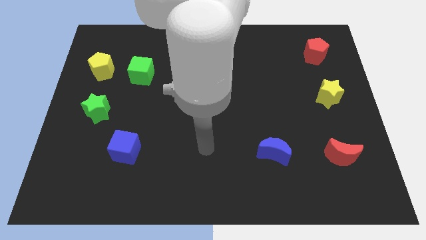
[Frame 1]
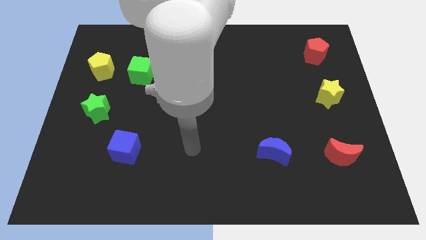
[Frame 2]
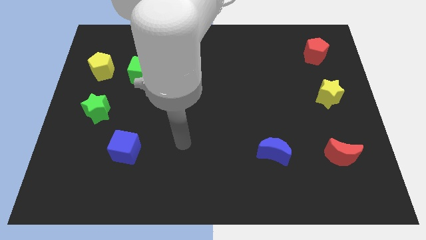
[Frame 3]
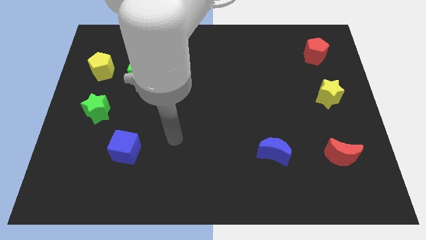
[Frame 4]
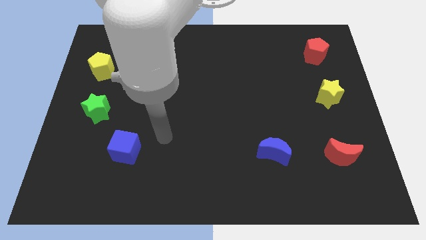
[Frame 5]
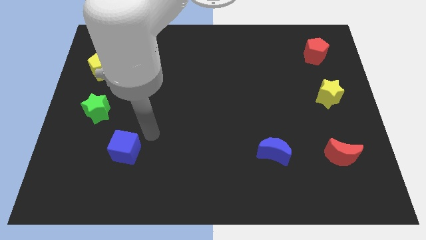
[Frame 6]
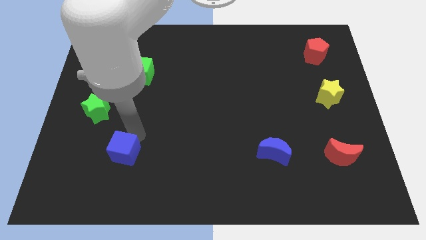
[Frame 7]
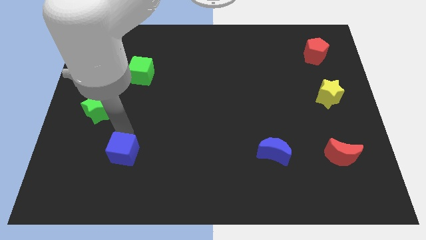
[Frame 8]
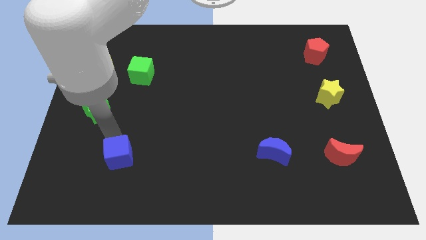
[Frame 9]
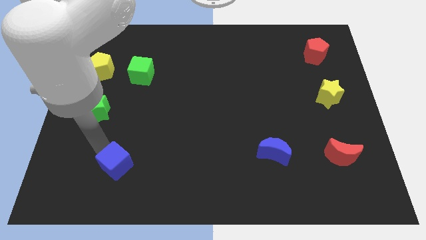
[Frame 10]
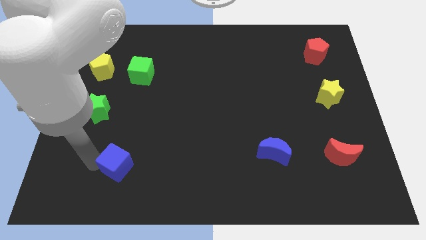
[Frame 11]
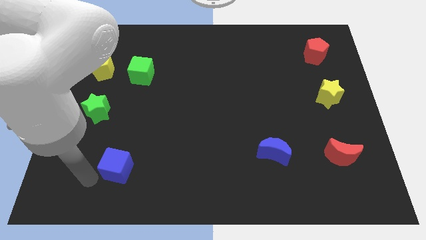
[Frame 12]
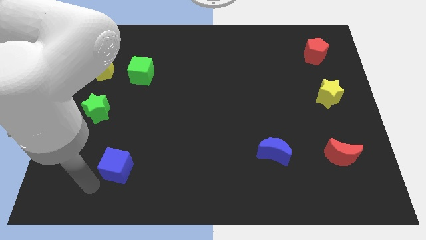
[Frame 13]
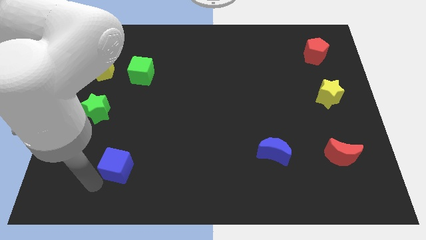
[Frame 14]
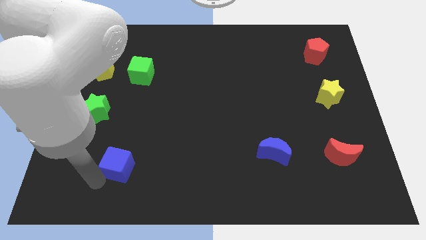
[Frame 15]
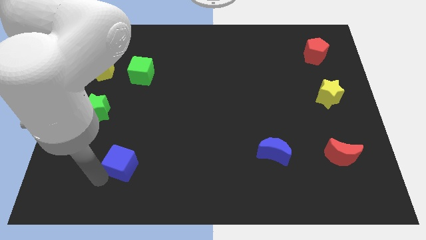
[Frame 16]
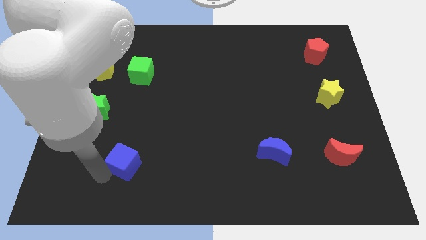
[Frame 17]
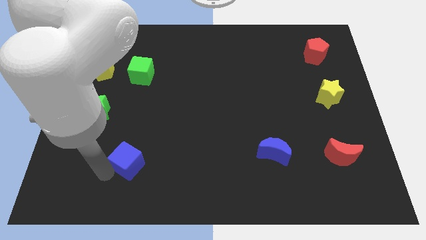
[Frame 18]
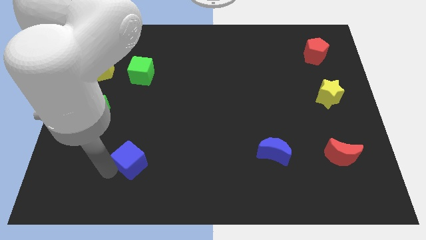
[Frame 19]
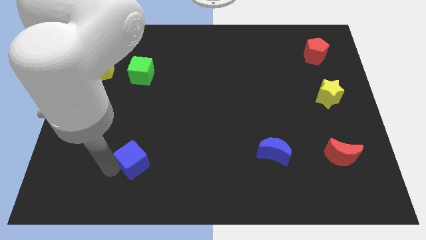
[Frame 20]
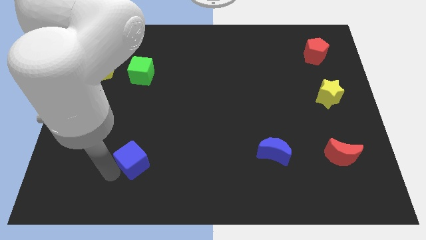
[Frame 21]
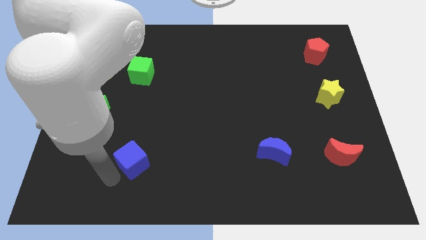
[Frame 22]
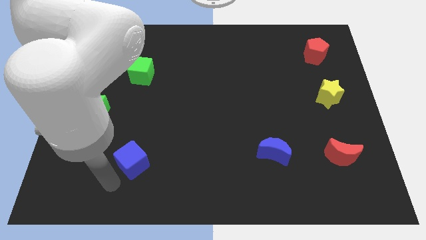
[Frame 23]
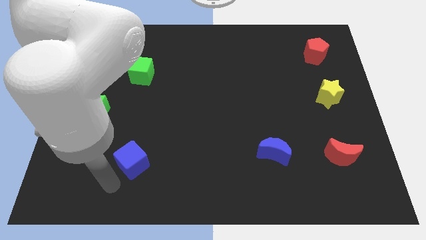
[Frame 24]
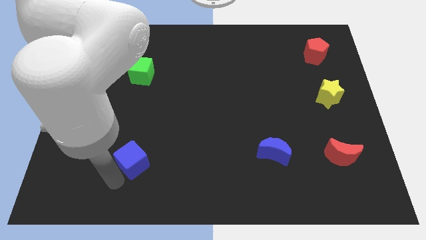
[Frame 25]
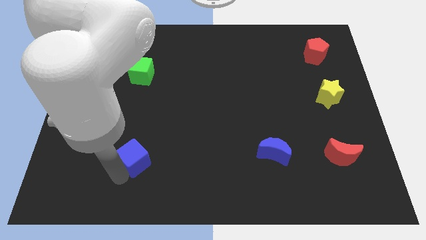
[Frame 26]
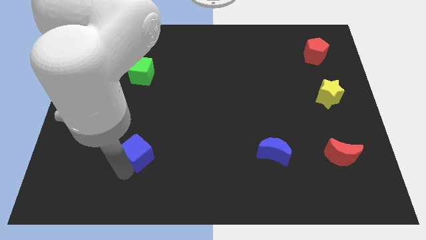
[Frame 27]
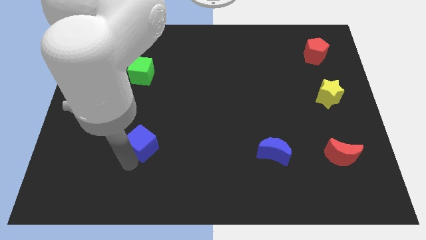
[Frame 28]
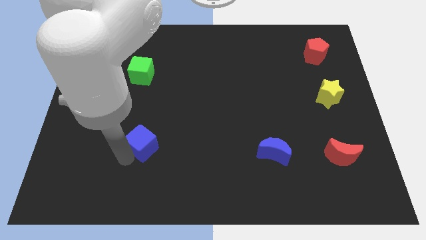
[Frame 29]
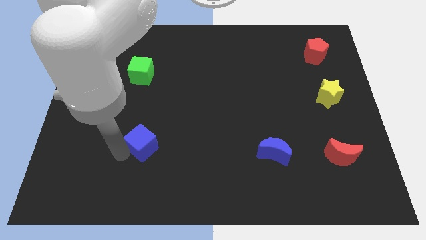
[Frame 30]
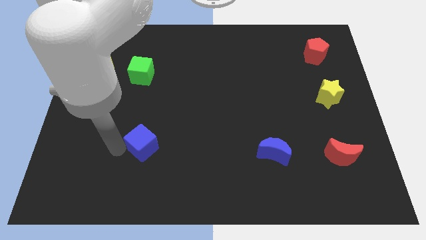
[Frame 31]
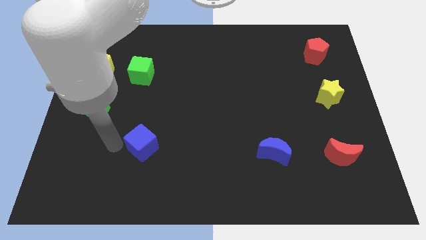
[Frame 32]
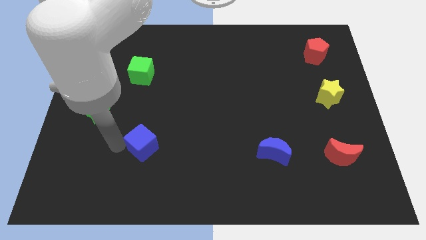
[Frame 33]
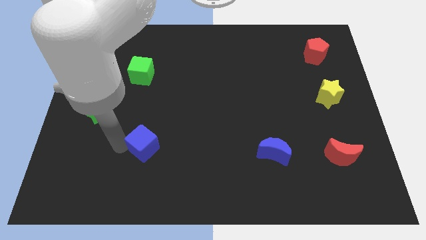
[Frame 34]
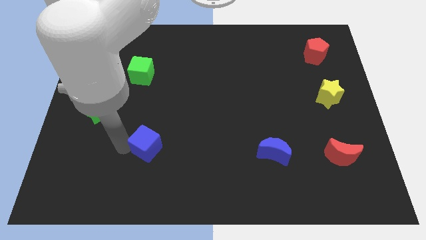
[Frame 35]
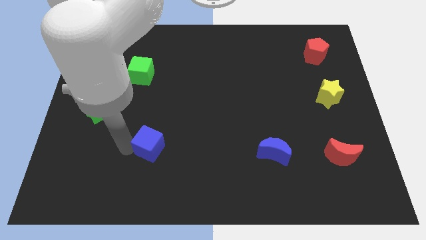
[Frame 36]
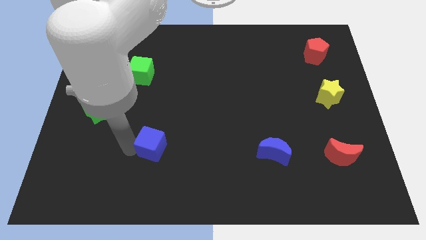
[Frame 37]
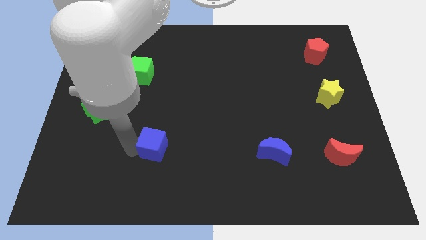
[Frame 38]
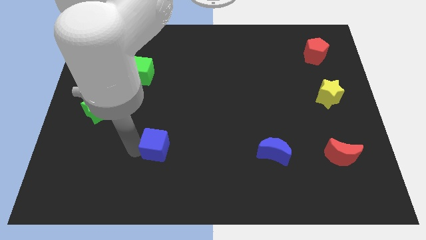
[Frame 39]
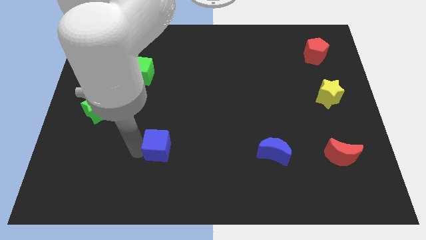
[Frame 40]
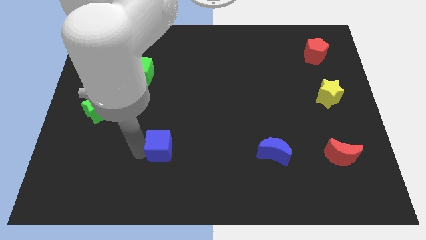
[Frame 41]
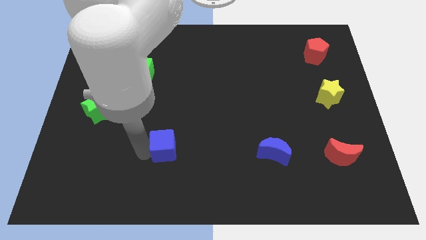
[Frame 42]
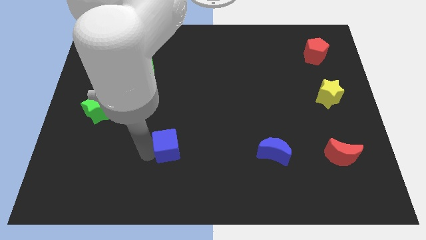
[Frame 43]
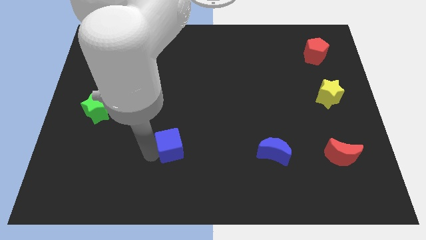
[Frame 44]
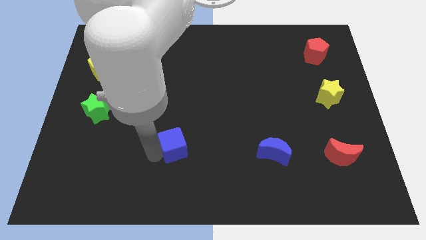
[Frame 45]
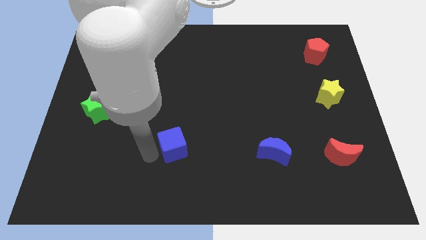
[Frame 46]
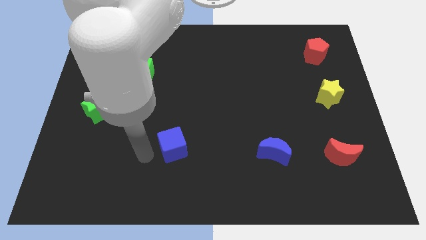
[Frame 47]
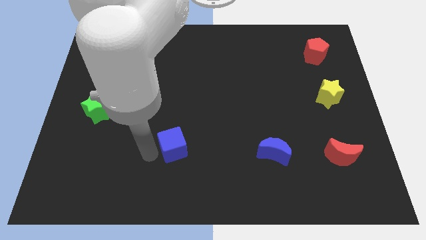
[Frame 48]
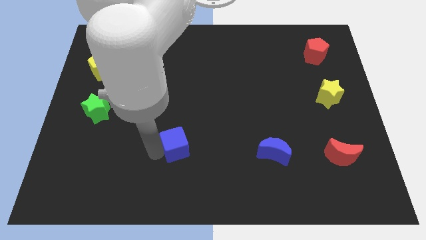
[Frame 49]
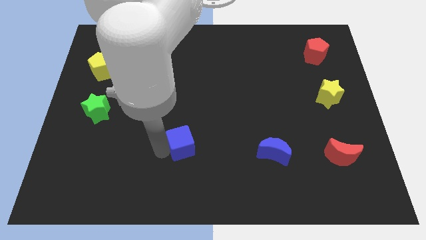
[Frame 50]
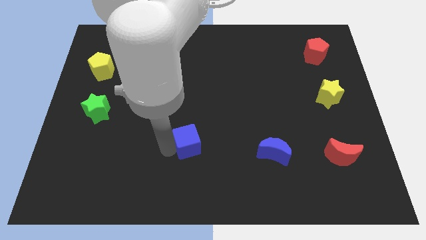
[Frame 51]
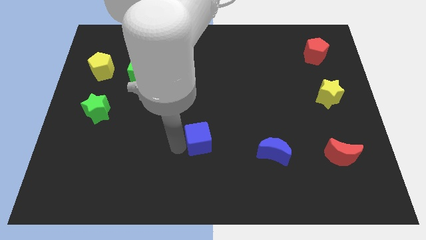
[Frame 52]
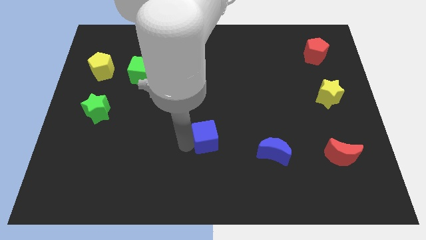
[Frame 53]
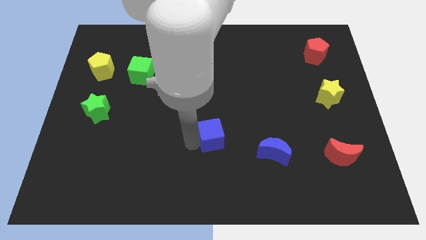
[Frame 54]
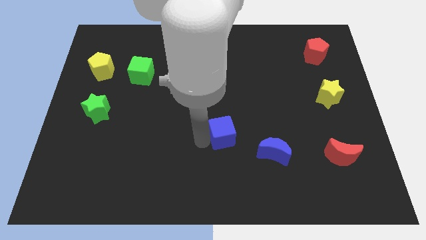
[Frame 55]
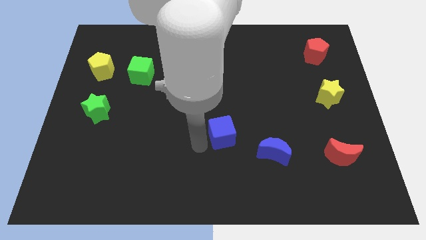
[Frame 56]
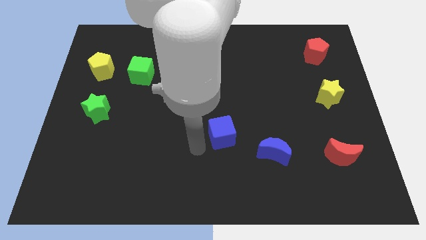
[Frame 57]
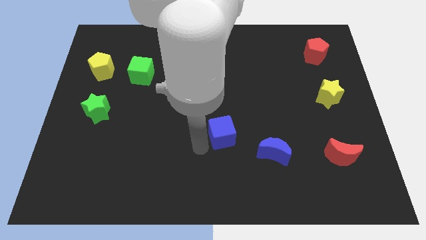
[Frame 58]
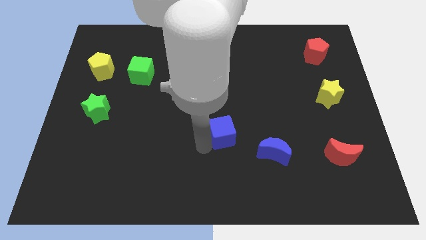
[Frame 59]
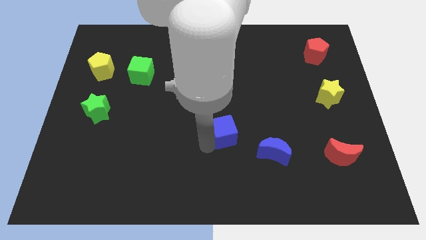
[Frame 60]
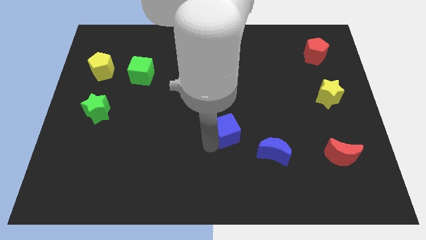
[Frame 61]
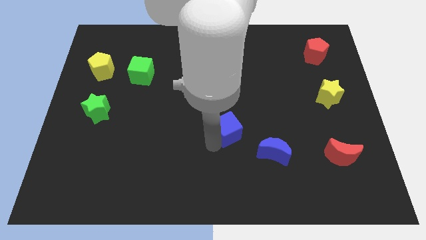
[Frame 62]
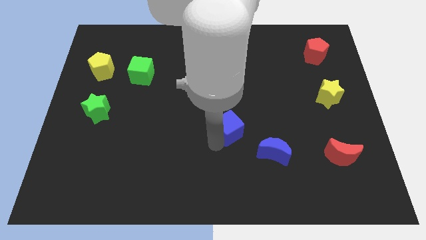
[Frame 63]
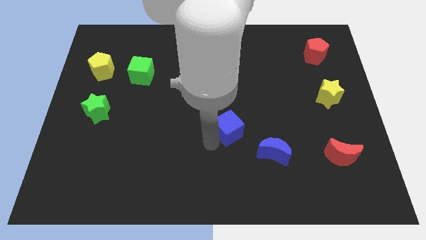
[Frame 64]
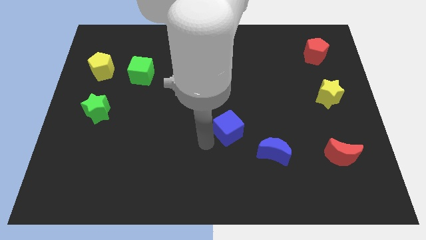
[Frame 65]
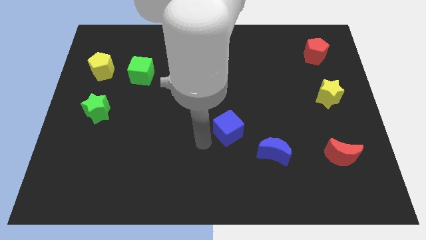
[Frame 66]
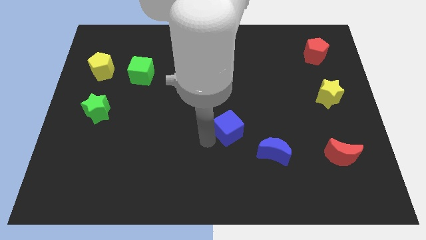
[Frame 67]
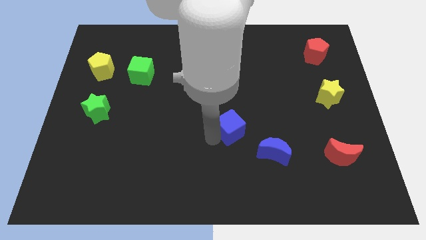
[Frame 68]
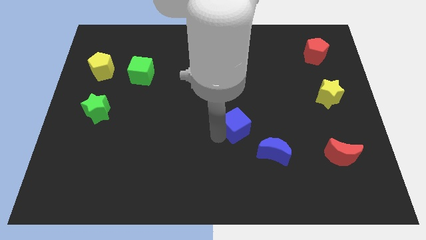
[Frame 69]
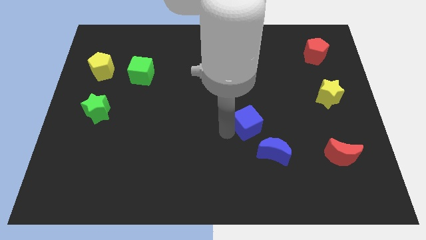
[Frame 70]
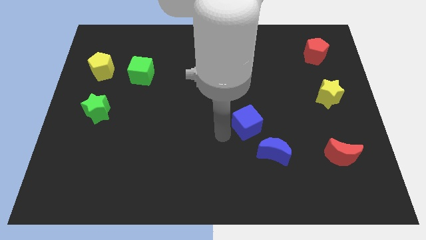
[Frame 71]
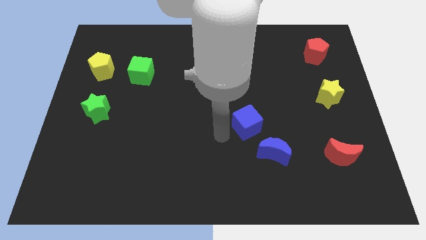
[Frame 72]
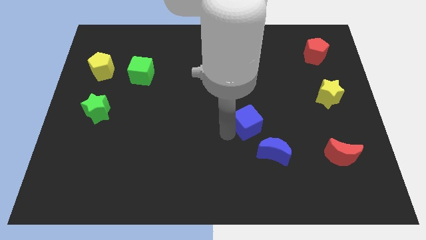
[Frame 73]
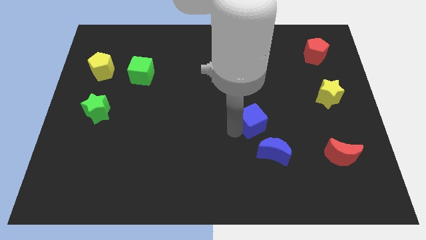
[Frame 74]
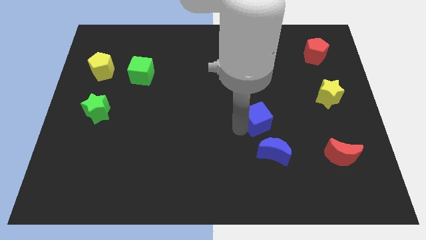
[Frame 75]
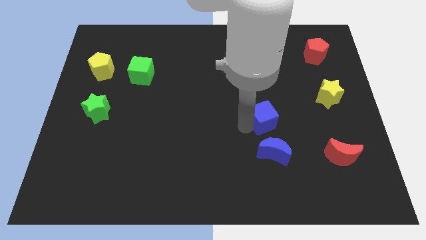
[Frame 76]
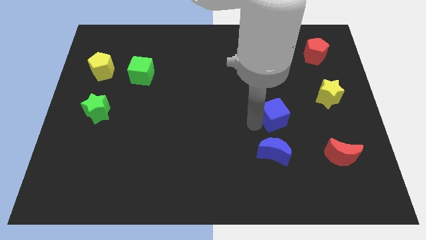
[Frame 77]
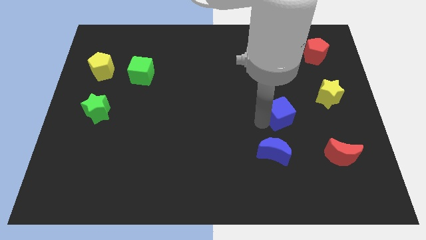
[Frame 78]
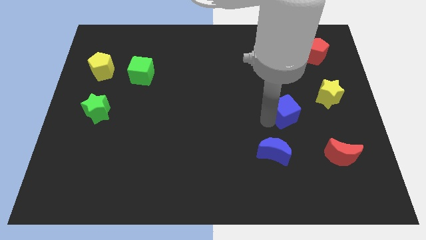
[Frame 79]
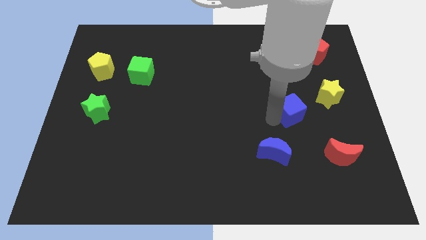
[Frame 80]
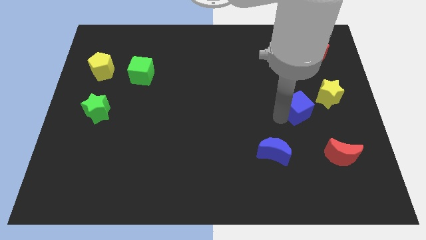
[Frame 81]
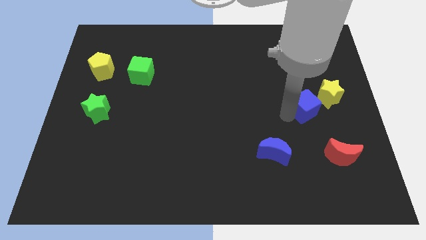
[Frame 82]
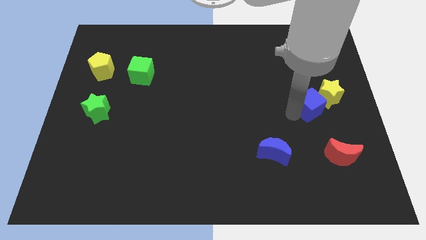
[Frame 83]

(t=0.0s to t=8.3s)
slide the blue cube to the yellow star
